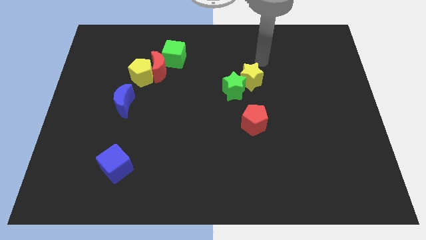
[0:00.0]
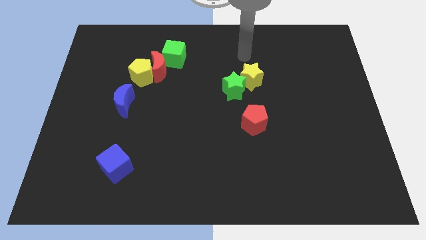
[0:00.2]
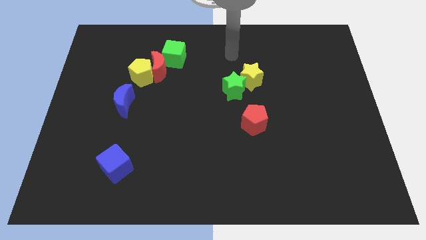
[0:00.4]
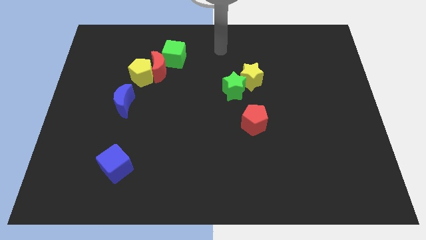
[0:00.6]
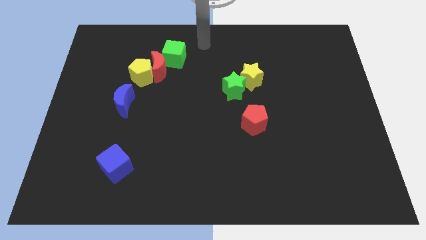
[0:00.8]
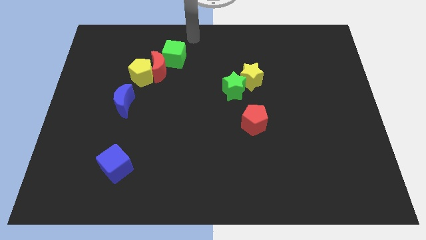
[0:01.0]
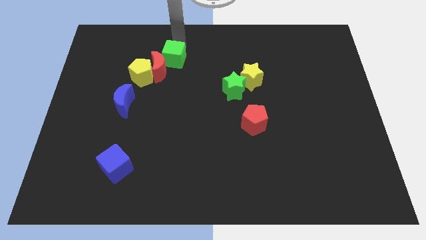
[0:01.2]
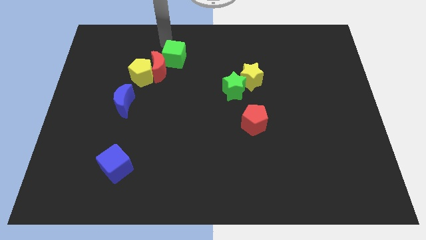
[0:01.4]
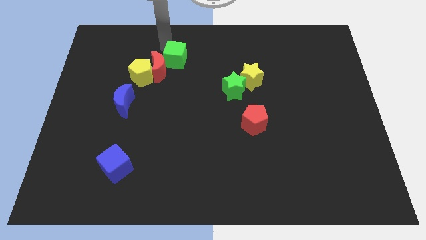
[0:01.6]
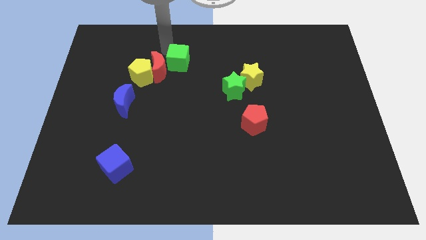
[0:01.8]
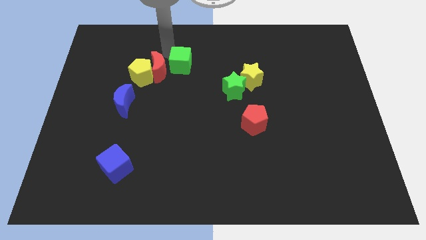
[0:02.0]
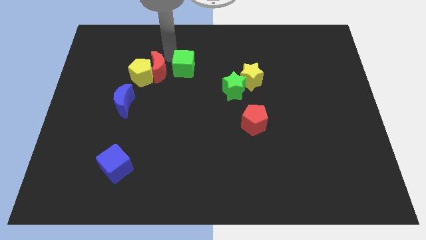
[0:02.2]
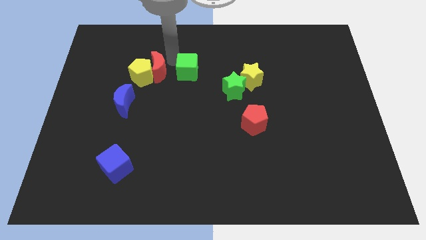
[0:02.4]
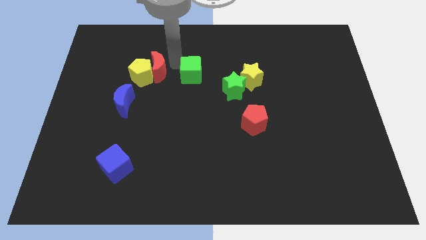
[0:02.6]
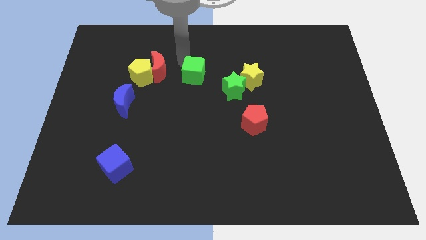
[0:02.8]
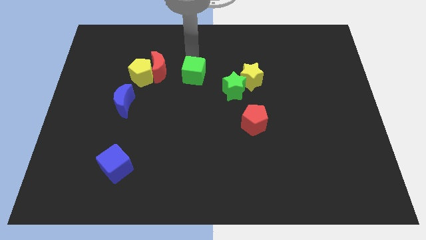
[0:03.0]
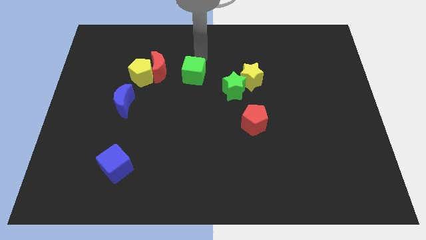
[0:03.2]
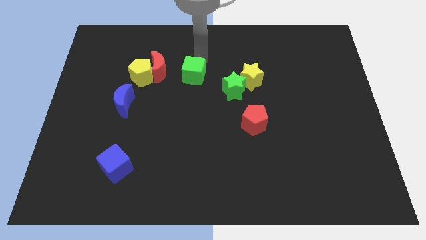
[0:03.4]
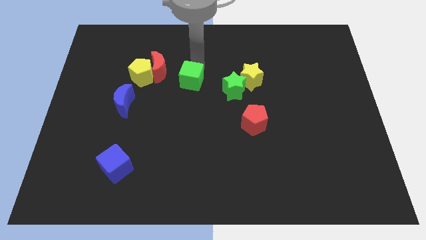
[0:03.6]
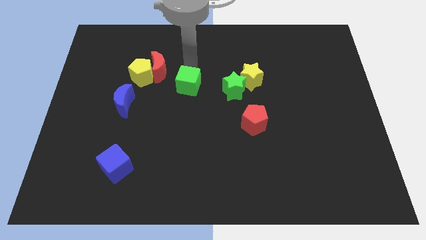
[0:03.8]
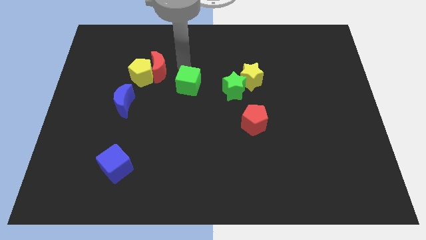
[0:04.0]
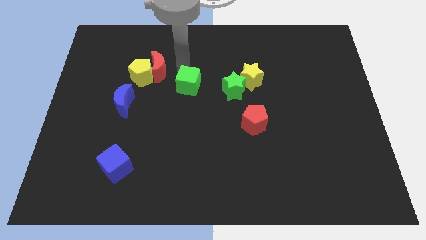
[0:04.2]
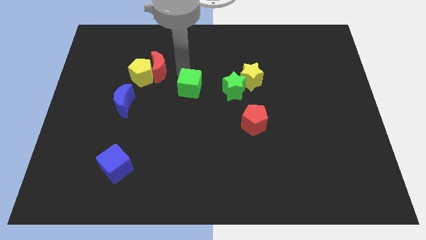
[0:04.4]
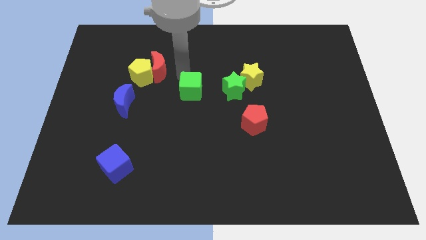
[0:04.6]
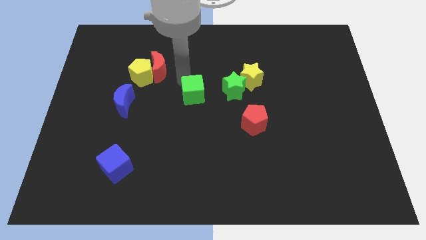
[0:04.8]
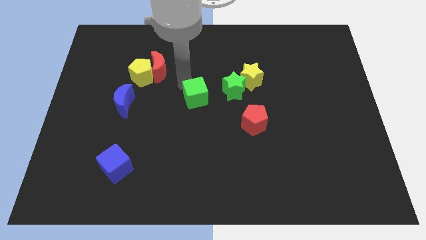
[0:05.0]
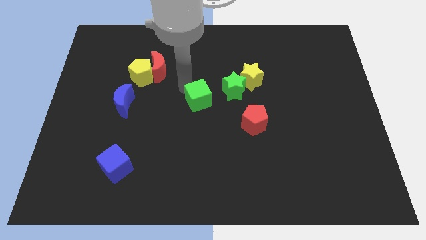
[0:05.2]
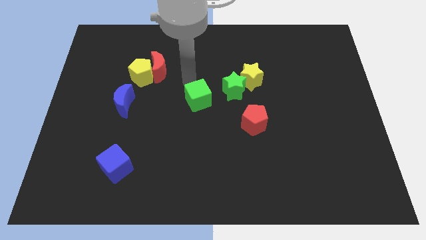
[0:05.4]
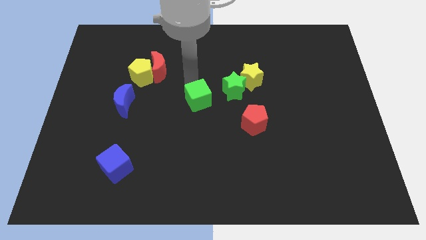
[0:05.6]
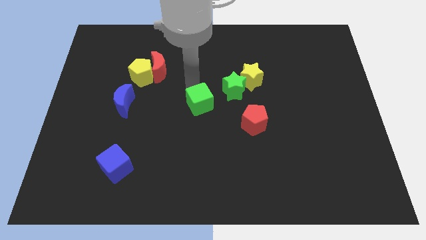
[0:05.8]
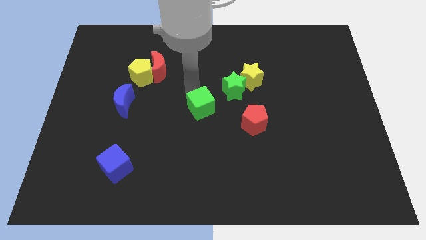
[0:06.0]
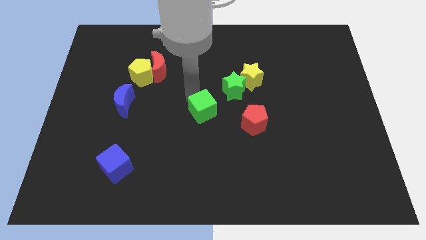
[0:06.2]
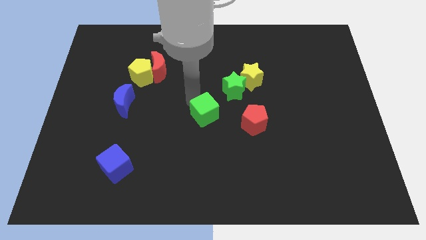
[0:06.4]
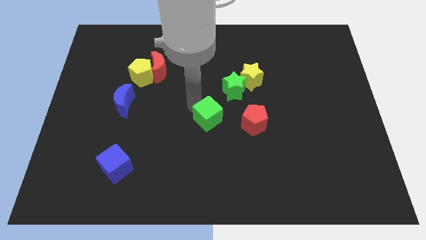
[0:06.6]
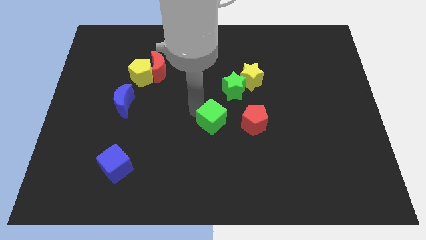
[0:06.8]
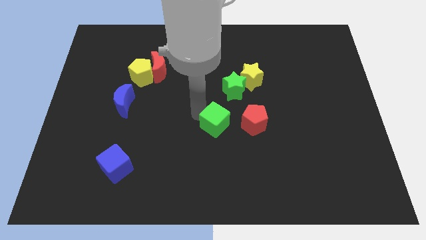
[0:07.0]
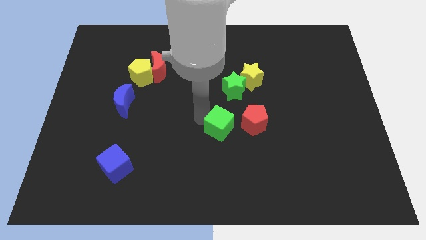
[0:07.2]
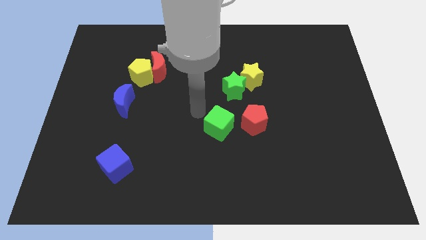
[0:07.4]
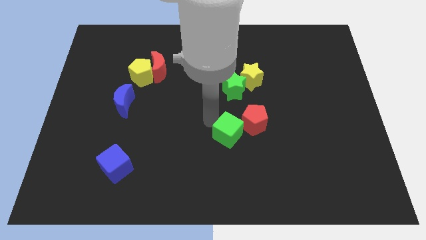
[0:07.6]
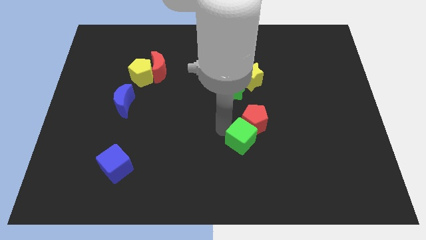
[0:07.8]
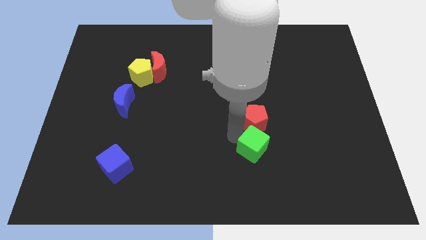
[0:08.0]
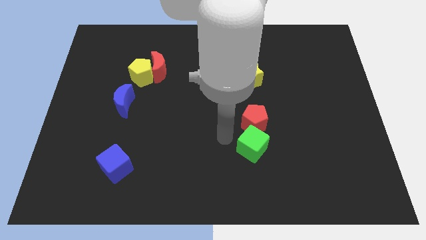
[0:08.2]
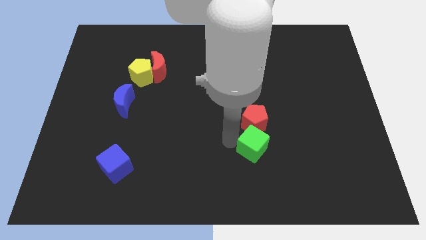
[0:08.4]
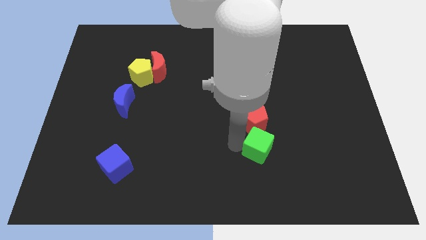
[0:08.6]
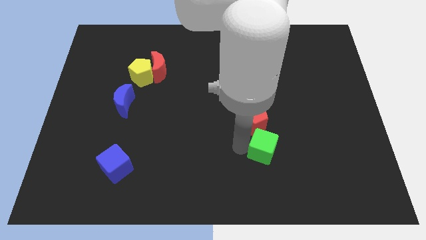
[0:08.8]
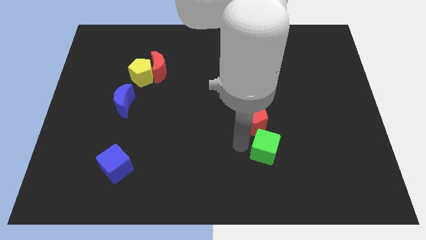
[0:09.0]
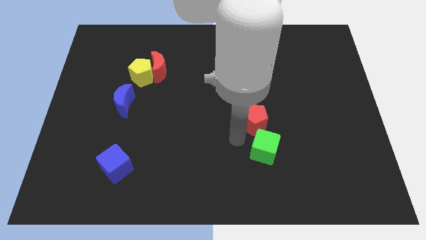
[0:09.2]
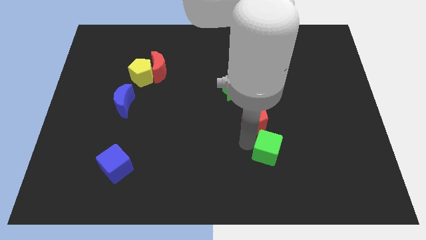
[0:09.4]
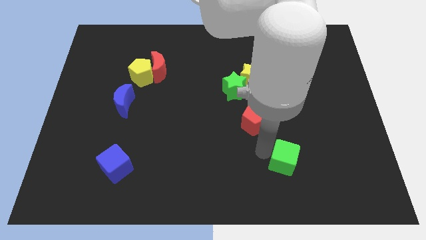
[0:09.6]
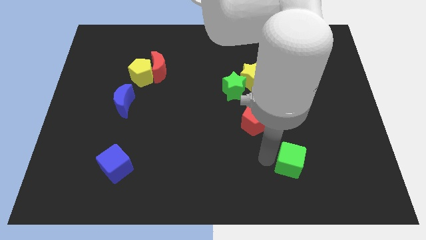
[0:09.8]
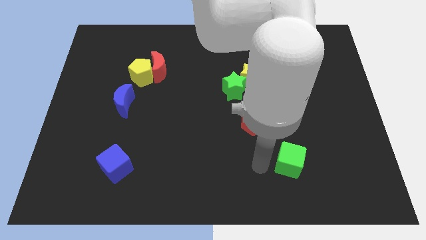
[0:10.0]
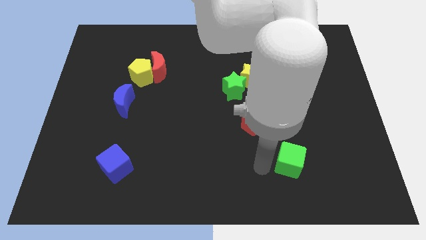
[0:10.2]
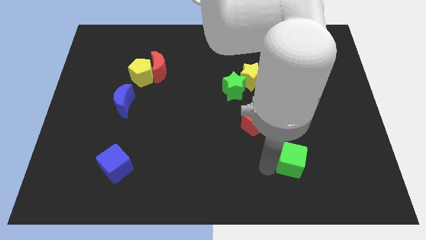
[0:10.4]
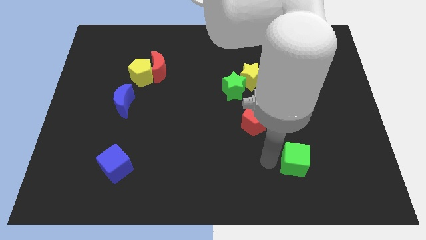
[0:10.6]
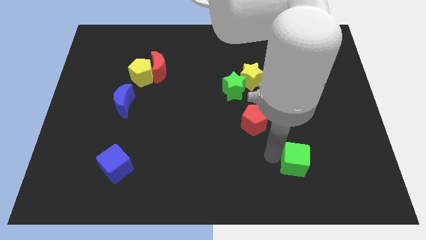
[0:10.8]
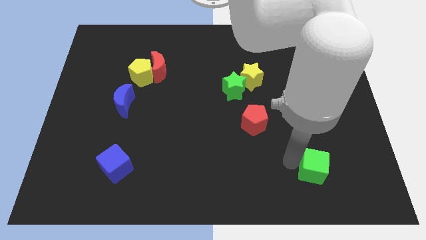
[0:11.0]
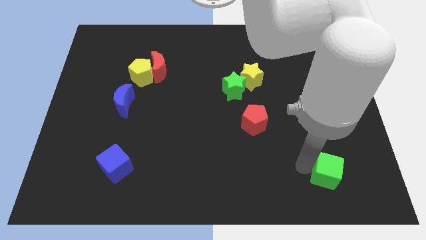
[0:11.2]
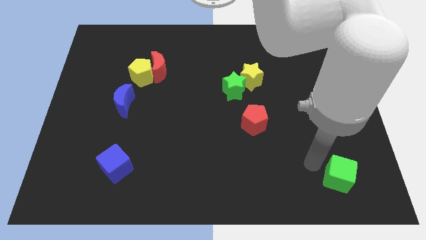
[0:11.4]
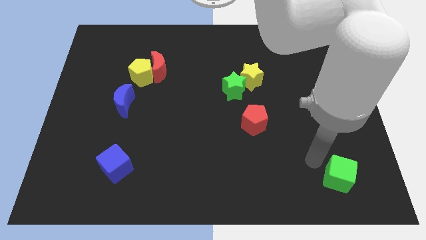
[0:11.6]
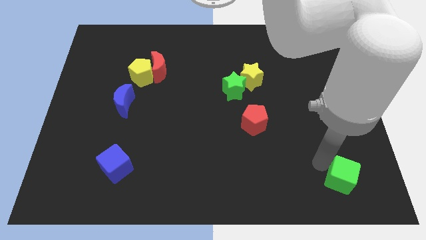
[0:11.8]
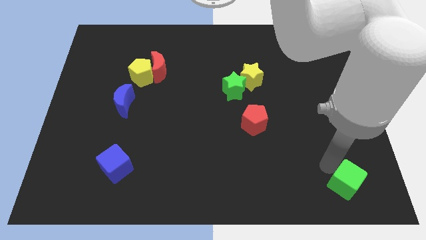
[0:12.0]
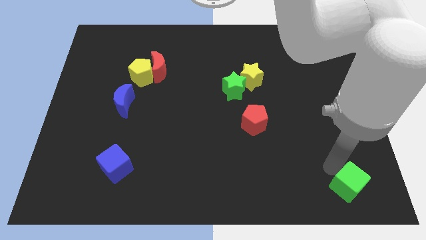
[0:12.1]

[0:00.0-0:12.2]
put the green cube to the bottom right
